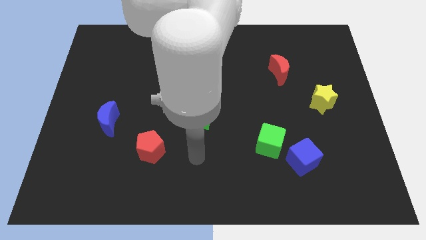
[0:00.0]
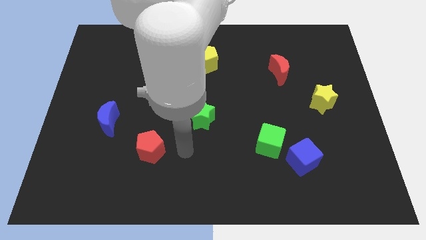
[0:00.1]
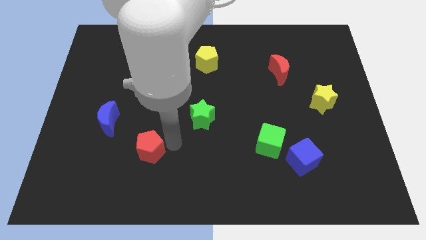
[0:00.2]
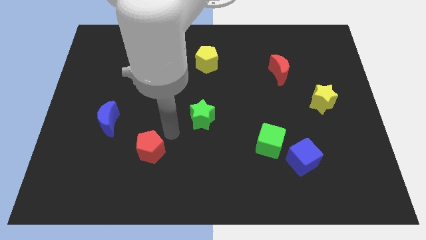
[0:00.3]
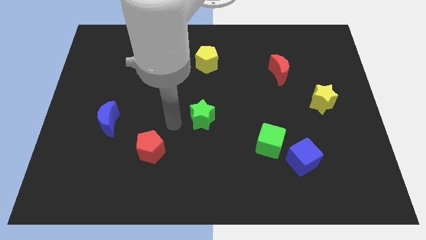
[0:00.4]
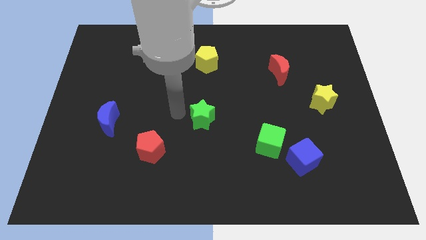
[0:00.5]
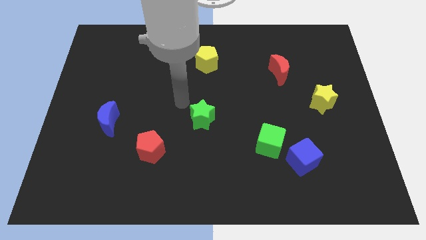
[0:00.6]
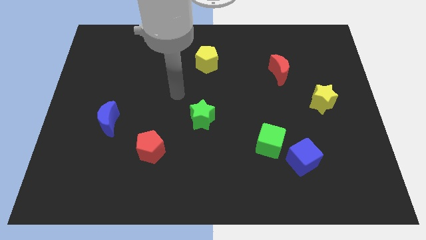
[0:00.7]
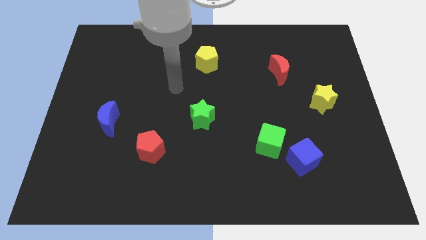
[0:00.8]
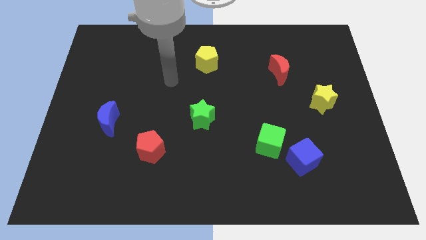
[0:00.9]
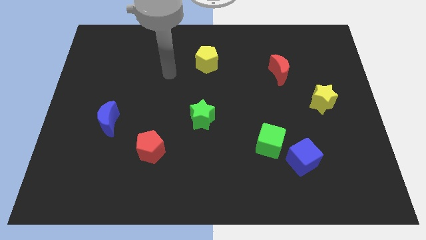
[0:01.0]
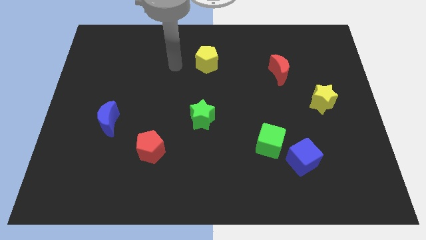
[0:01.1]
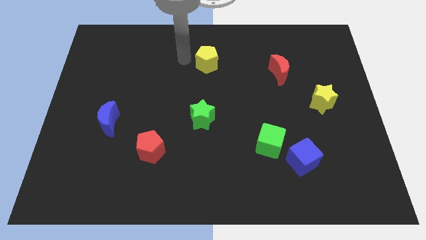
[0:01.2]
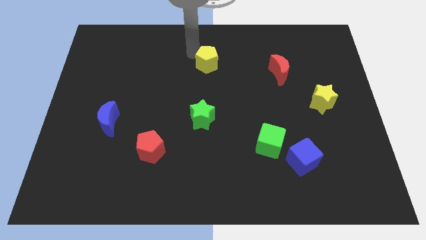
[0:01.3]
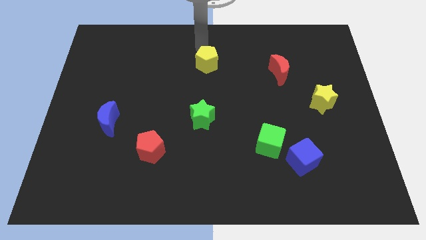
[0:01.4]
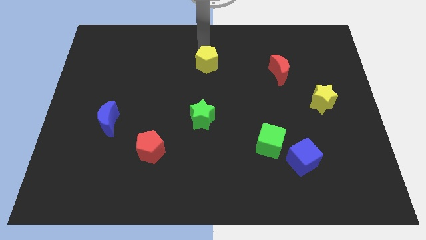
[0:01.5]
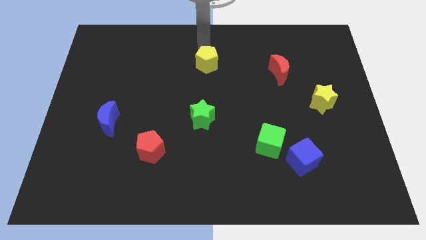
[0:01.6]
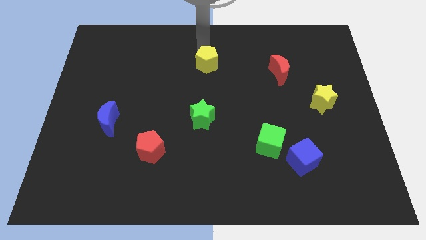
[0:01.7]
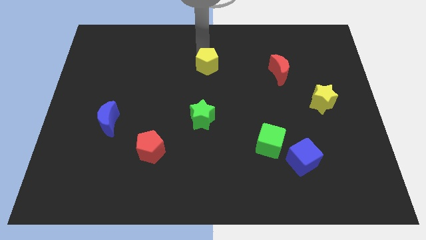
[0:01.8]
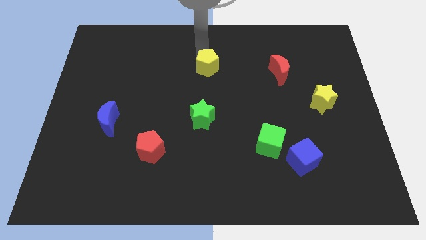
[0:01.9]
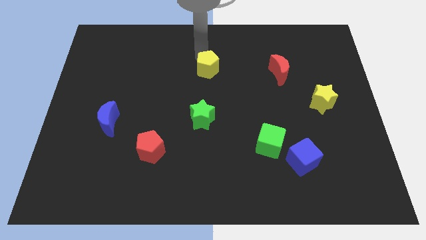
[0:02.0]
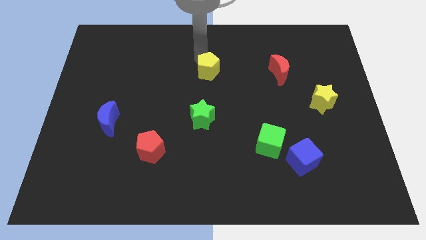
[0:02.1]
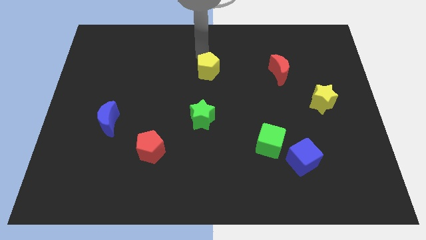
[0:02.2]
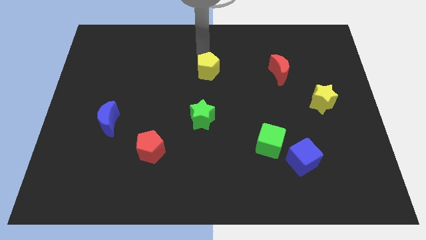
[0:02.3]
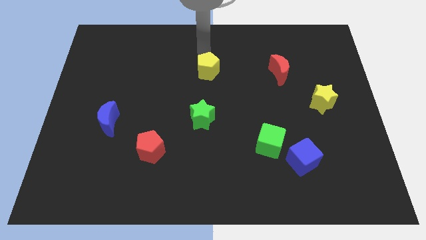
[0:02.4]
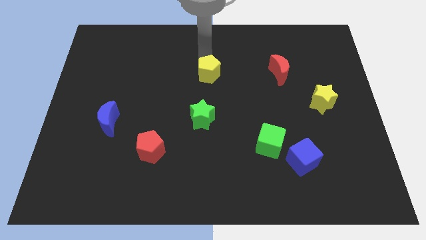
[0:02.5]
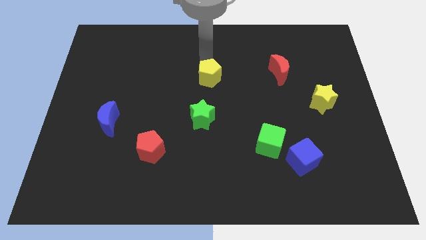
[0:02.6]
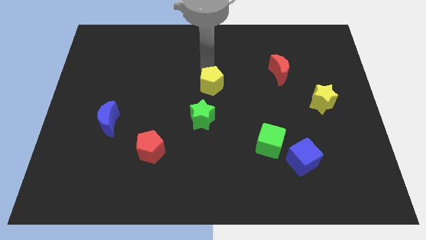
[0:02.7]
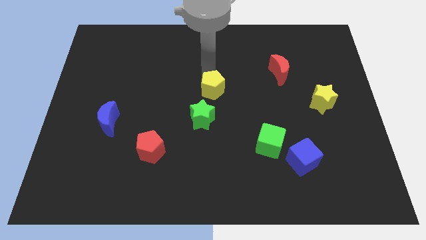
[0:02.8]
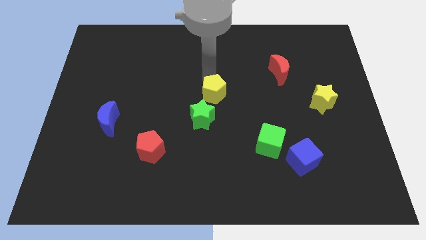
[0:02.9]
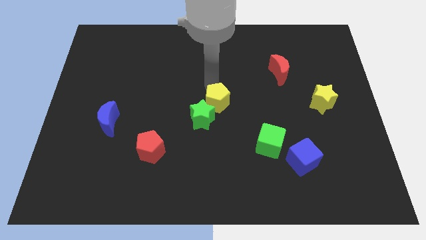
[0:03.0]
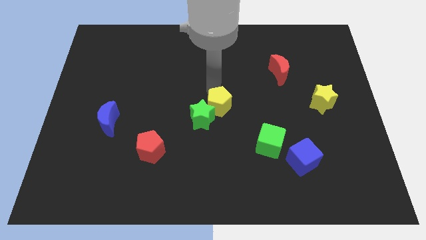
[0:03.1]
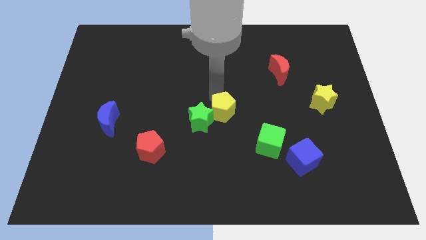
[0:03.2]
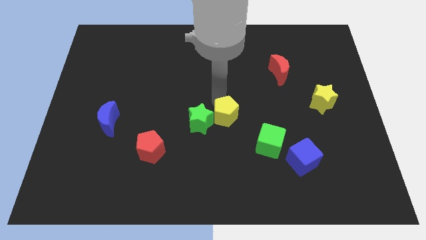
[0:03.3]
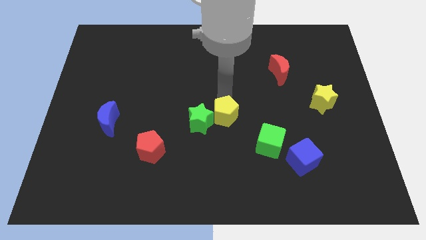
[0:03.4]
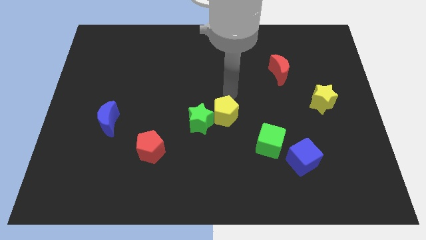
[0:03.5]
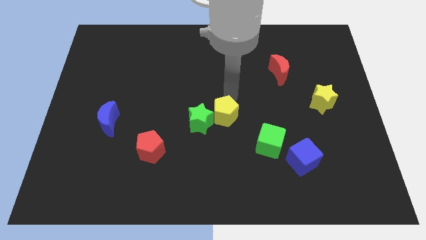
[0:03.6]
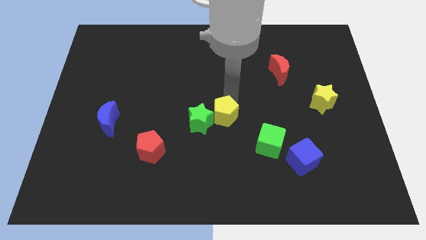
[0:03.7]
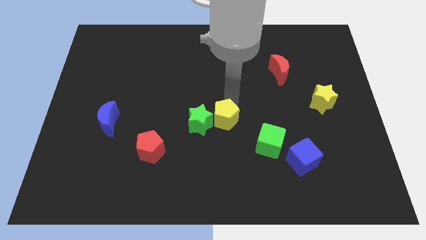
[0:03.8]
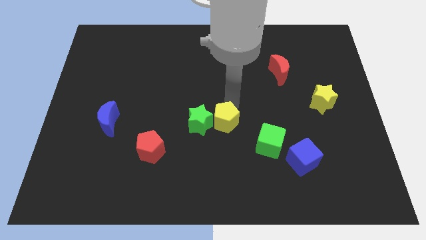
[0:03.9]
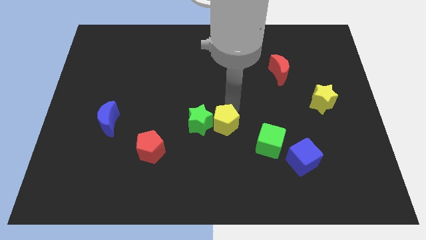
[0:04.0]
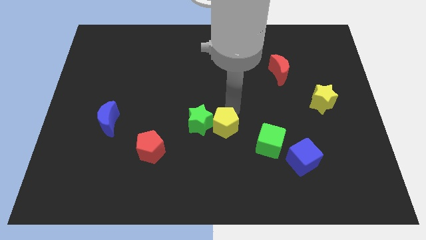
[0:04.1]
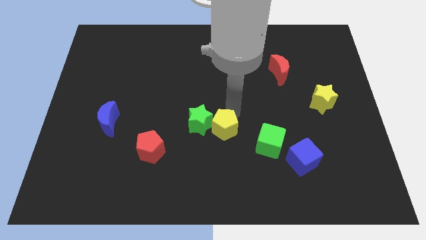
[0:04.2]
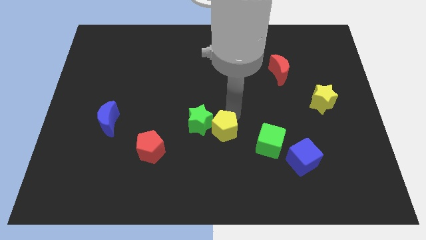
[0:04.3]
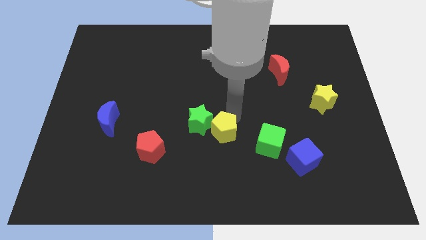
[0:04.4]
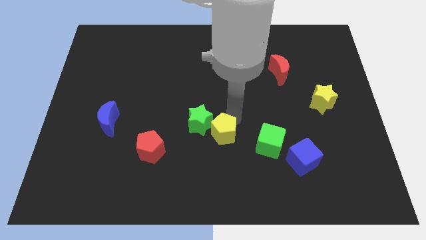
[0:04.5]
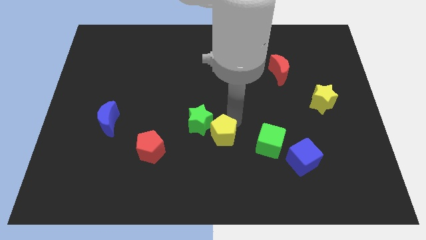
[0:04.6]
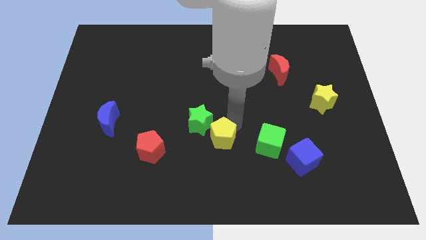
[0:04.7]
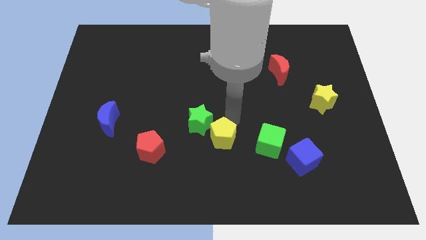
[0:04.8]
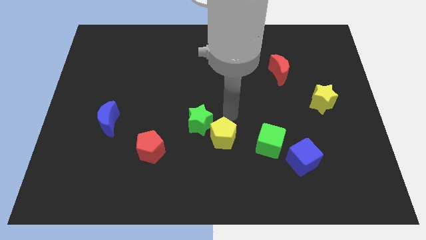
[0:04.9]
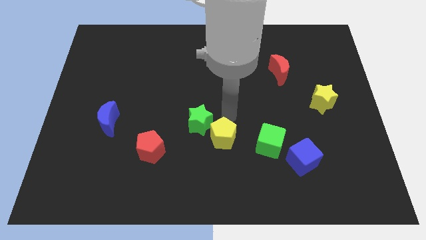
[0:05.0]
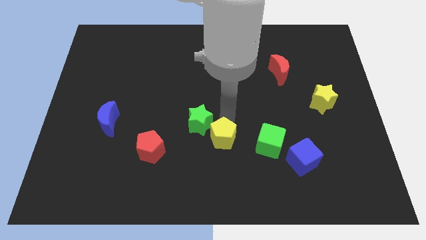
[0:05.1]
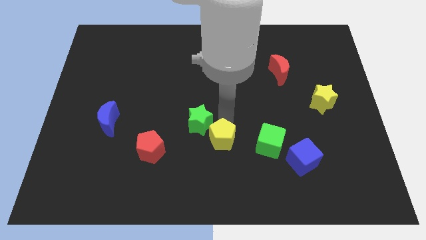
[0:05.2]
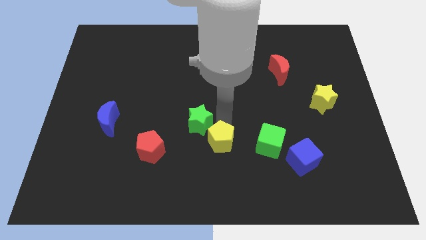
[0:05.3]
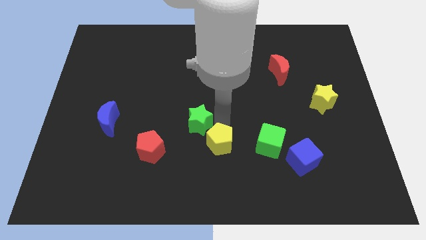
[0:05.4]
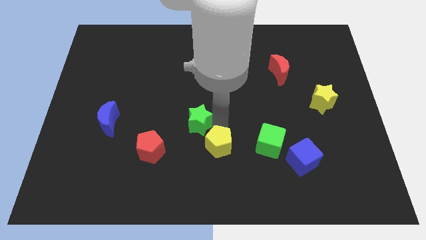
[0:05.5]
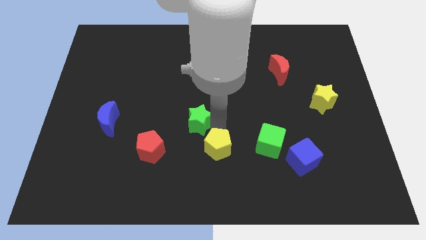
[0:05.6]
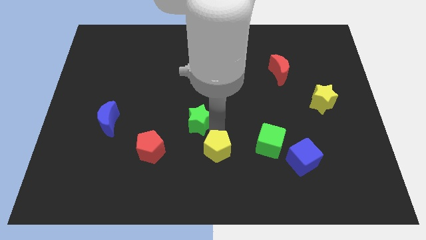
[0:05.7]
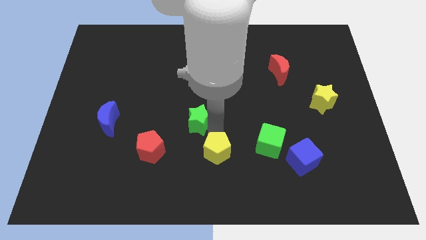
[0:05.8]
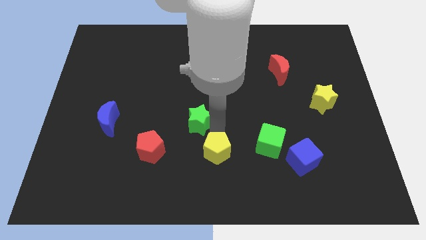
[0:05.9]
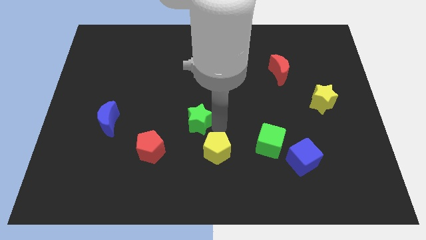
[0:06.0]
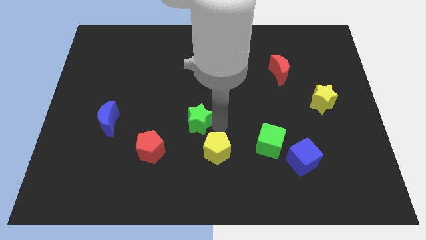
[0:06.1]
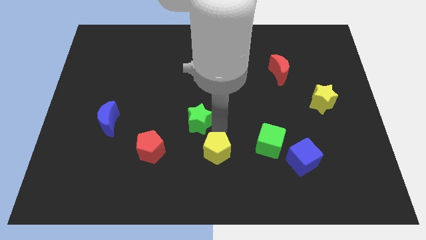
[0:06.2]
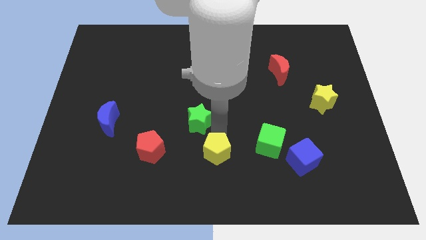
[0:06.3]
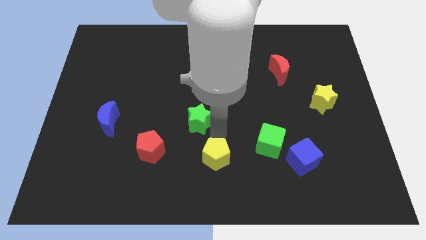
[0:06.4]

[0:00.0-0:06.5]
slide the yellow pentagon to the bottom
